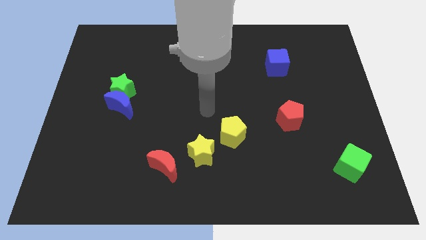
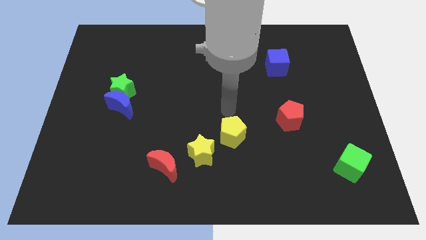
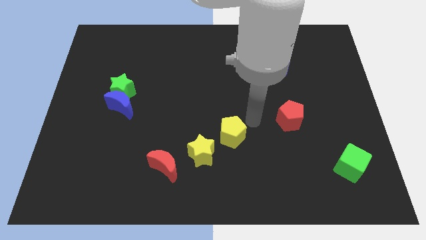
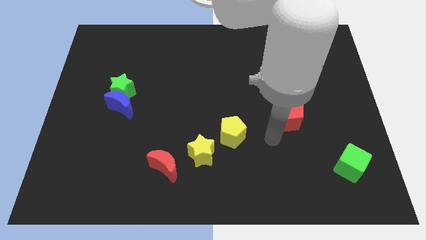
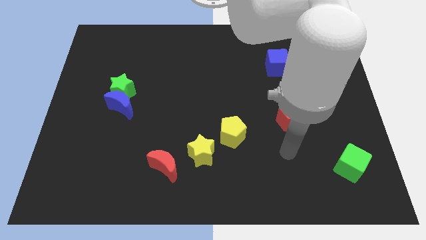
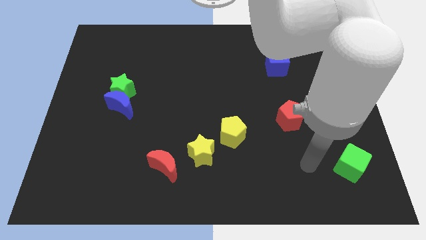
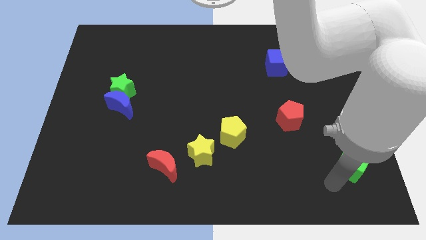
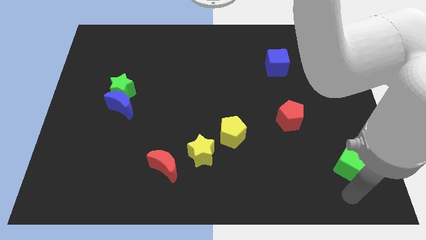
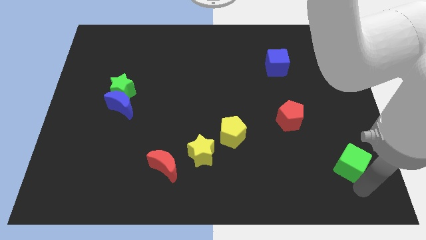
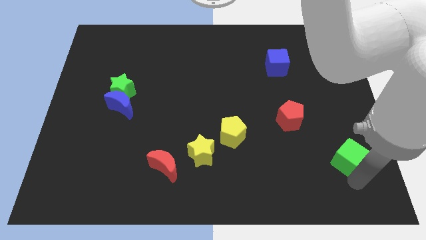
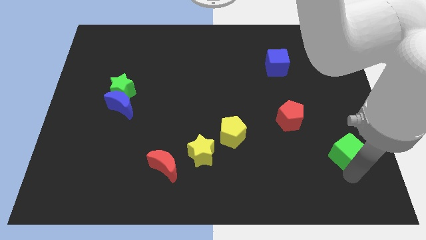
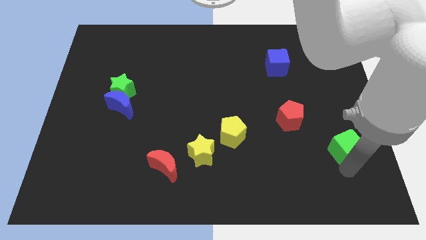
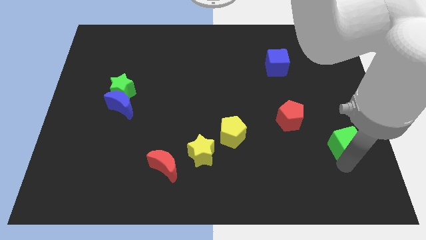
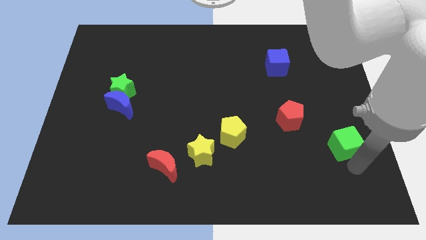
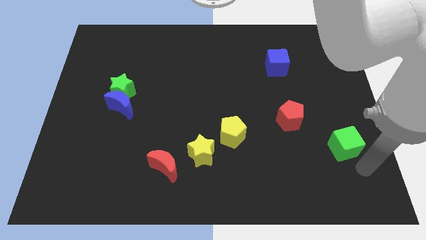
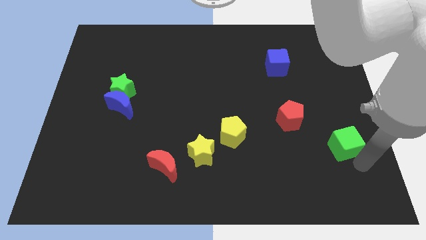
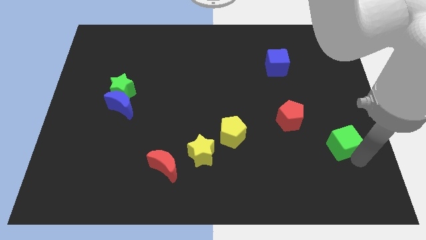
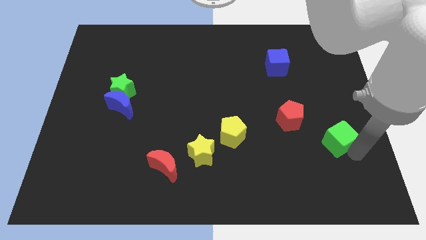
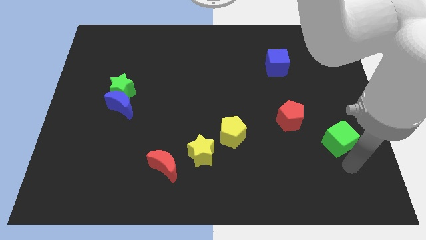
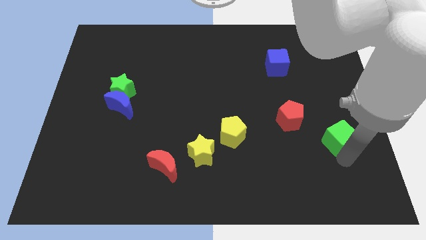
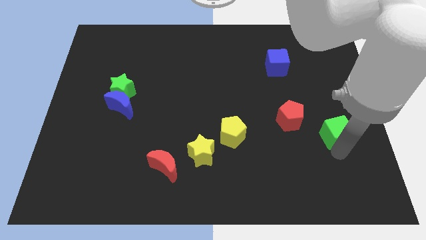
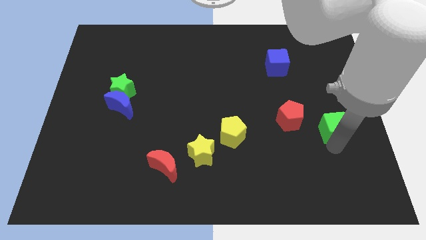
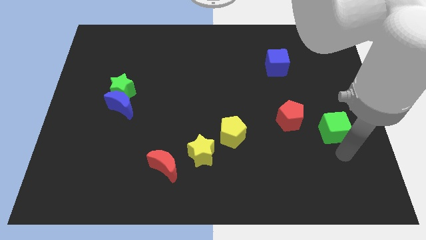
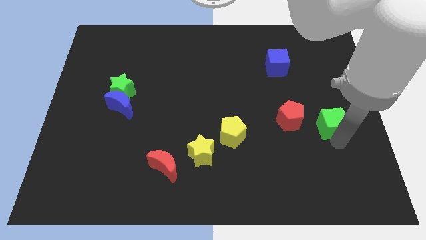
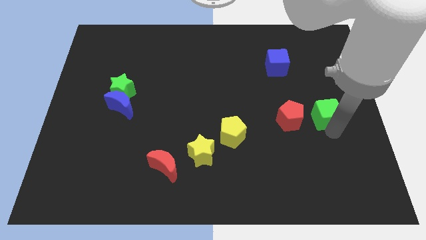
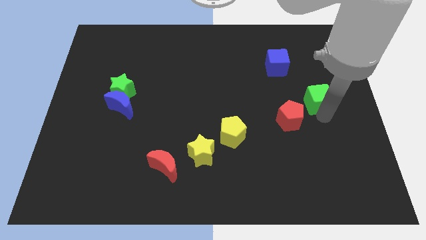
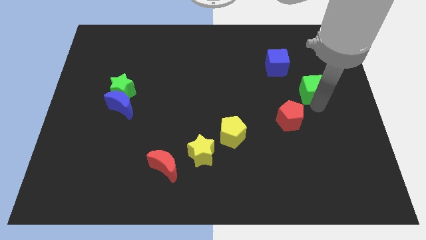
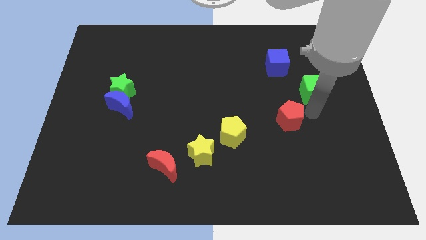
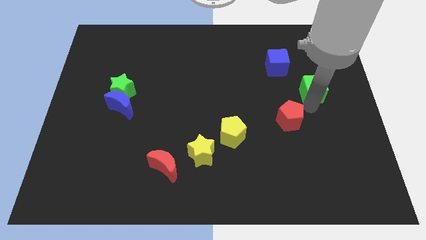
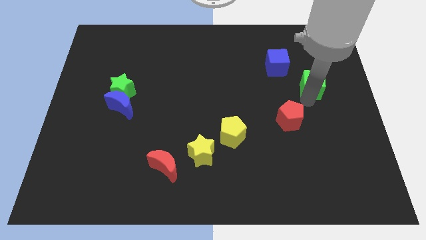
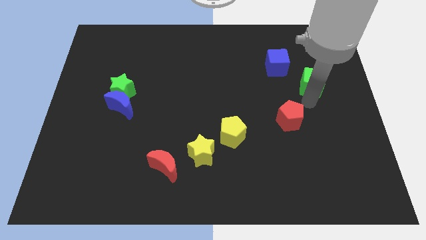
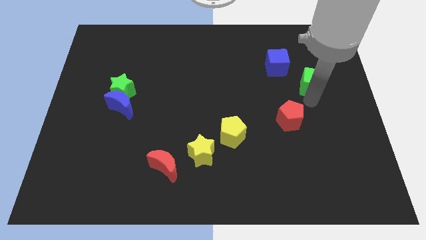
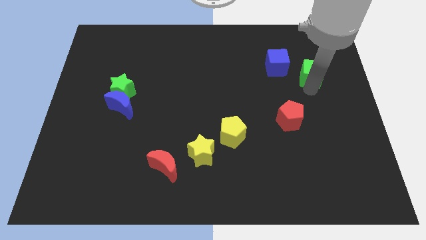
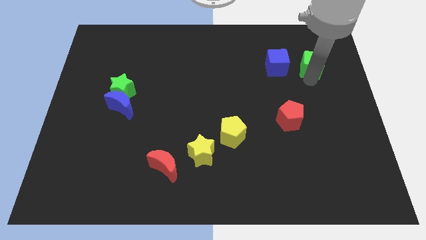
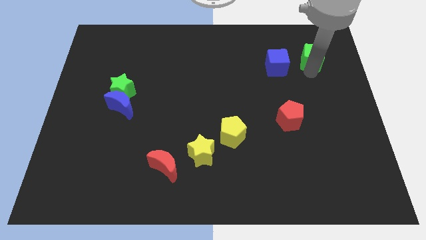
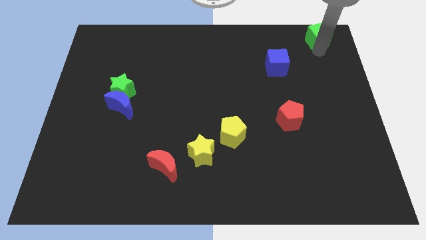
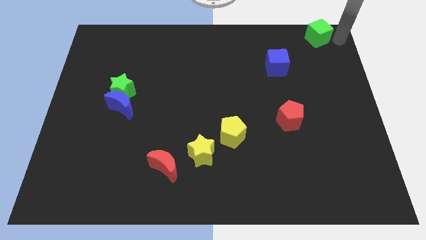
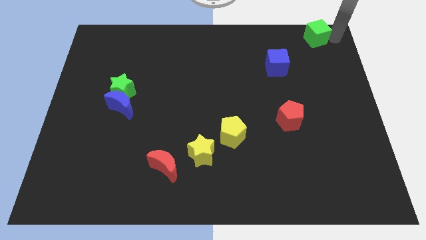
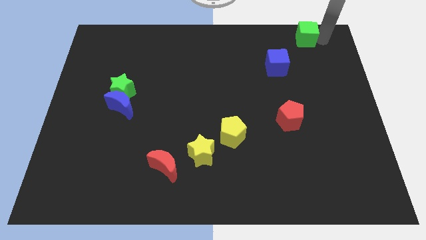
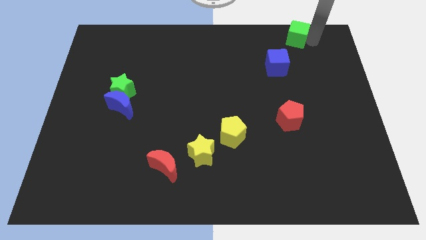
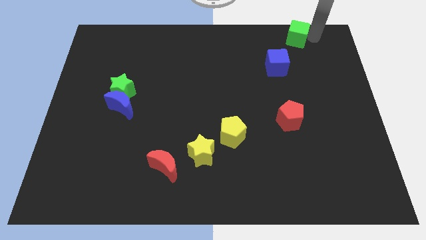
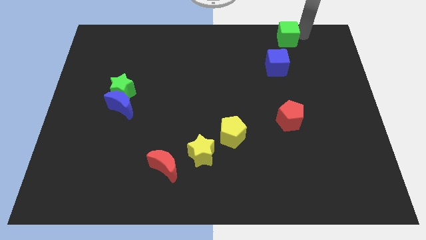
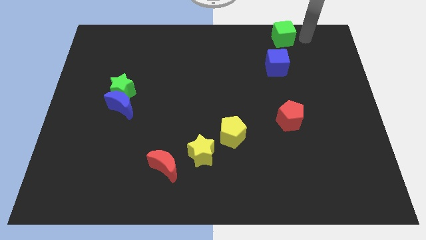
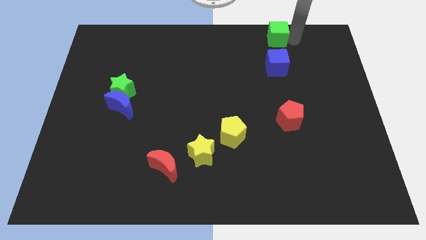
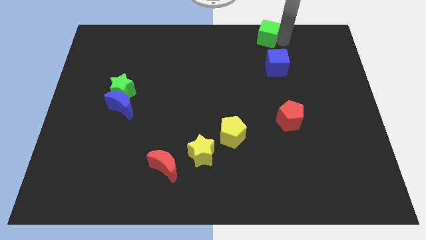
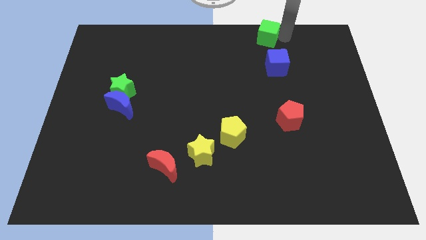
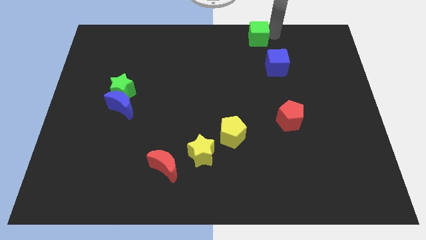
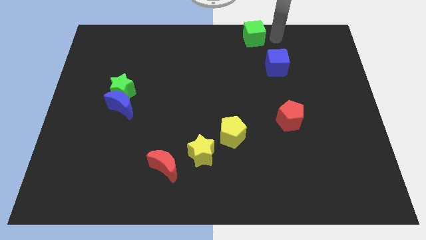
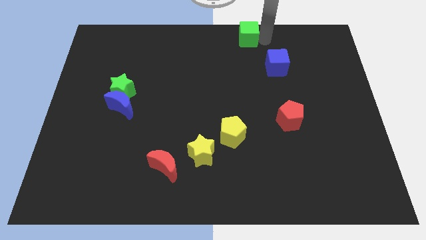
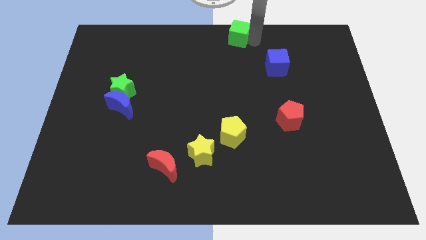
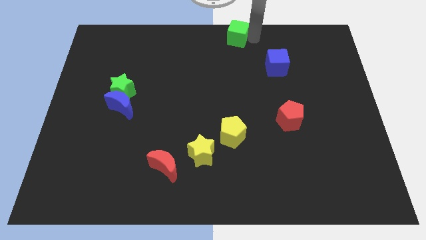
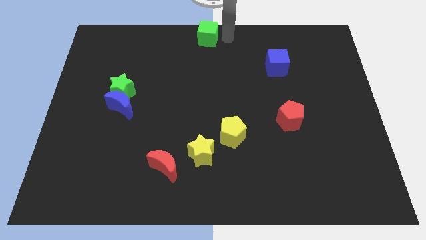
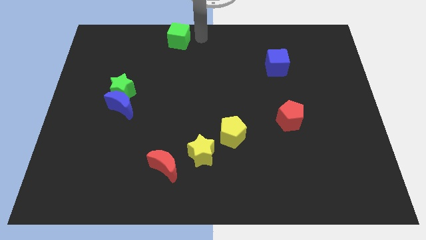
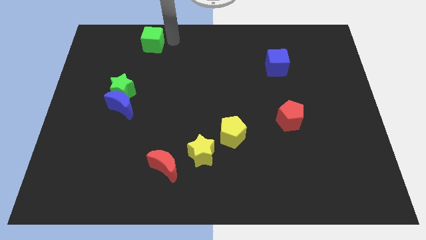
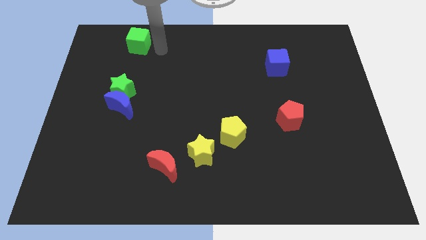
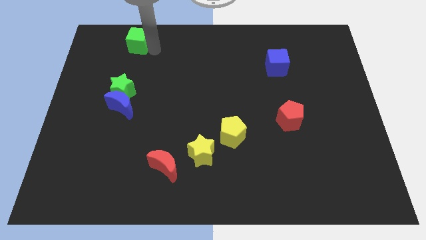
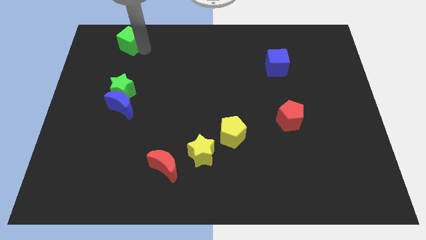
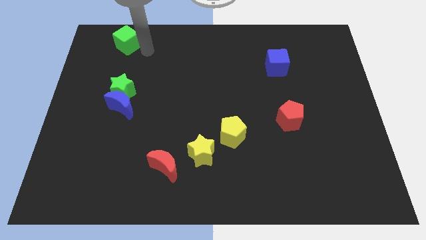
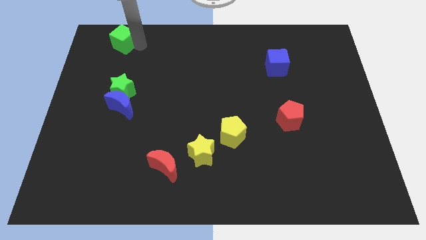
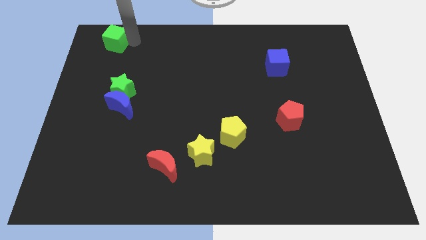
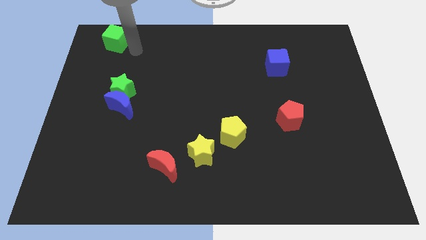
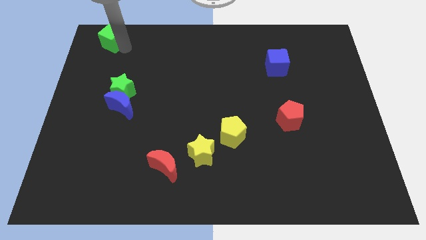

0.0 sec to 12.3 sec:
move the green cube to the top left

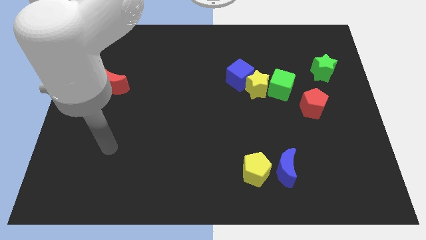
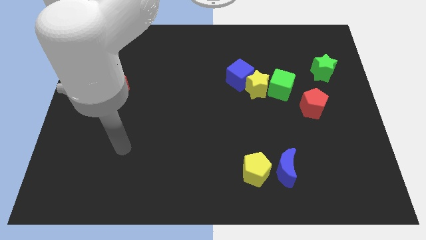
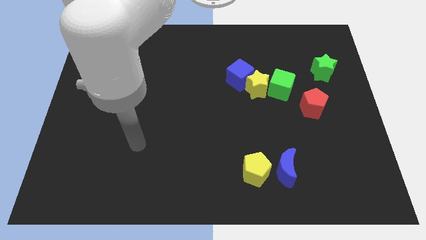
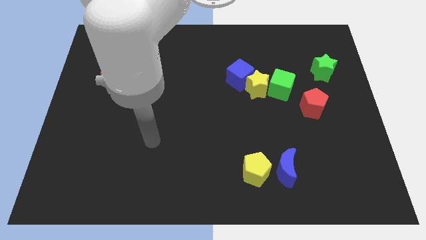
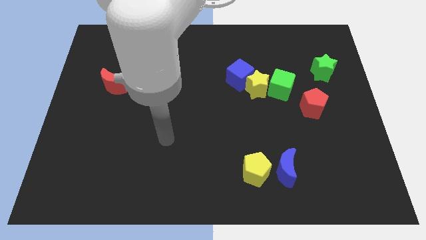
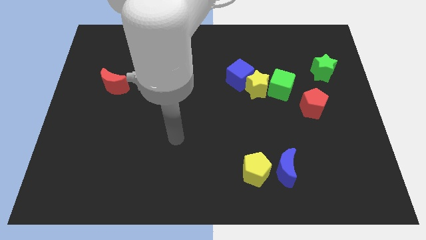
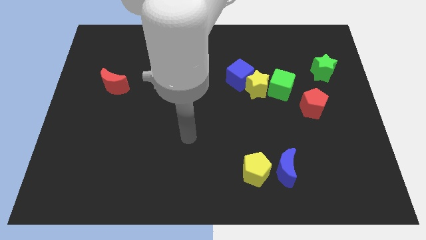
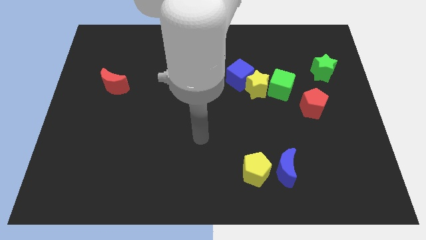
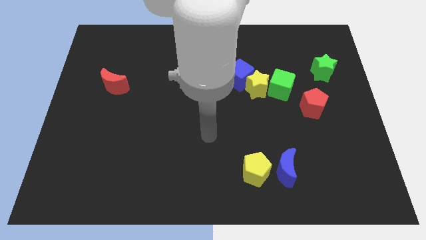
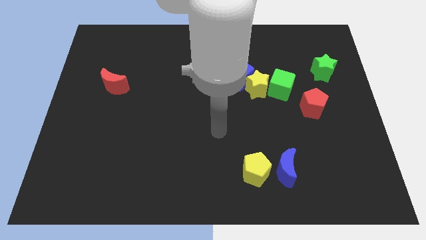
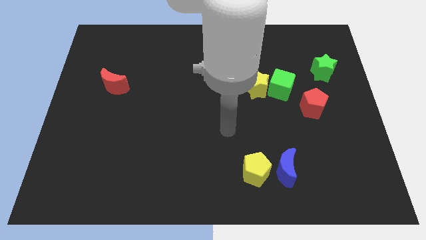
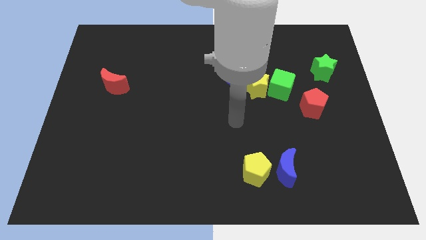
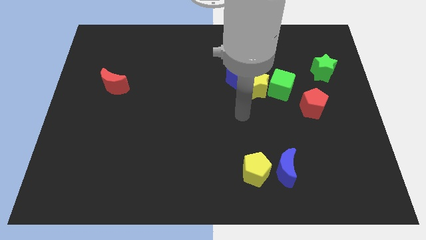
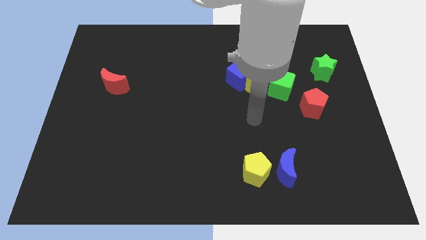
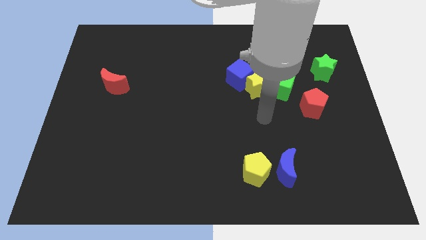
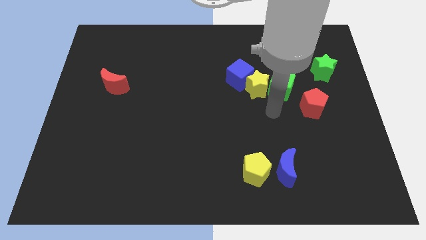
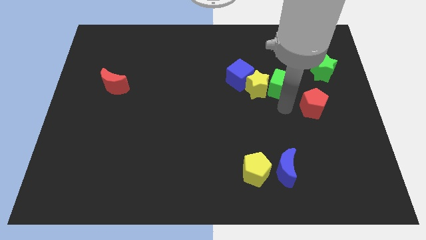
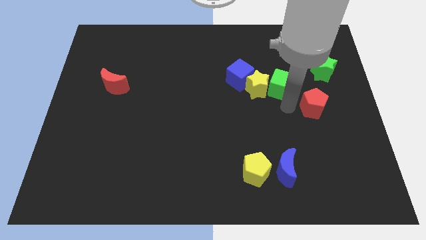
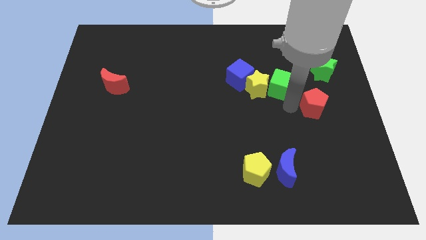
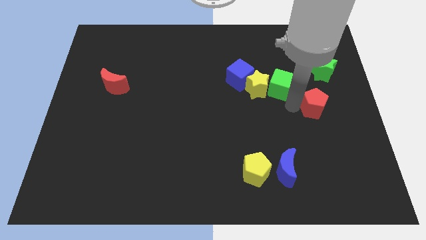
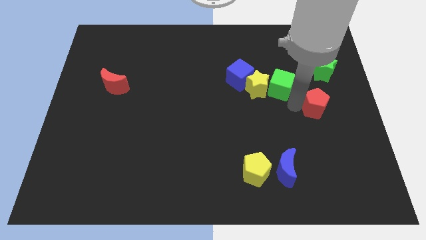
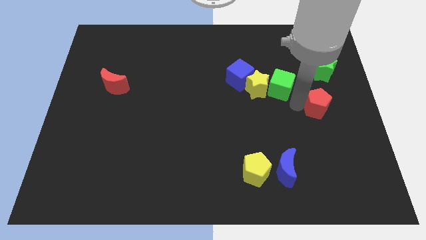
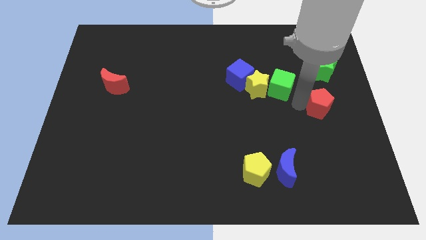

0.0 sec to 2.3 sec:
move the red pentagon to the center right
